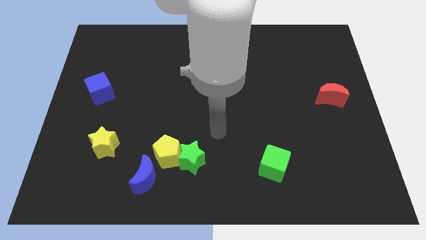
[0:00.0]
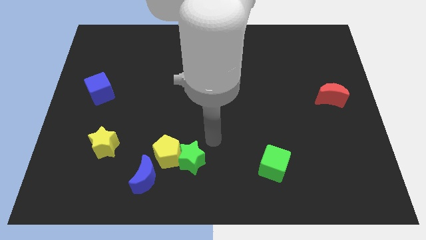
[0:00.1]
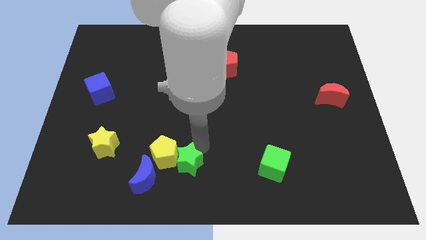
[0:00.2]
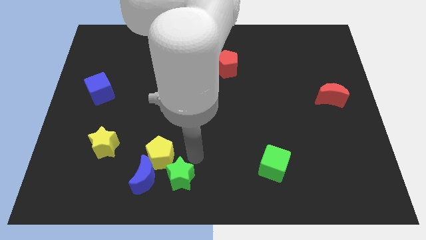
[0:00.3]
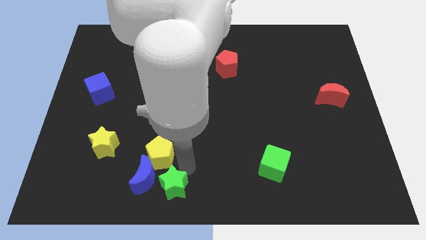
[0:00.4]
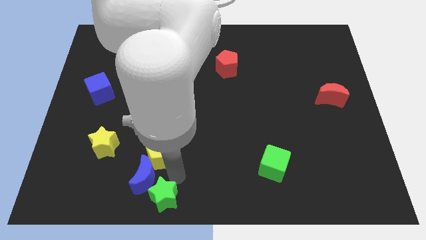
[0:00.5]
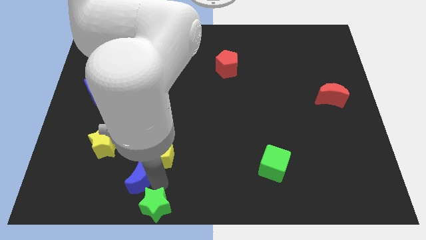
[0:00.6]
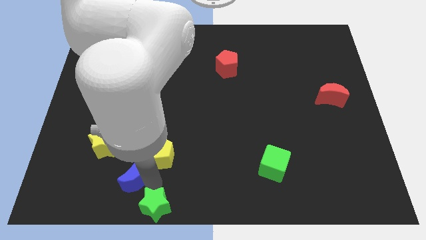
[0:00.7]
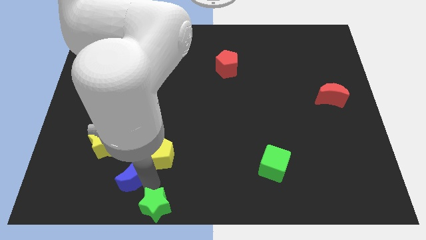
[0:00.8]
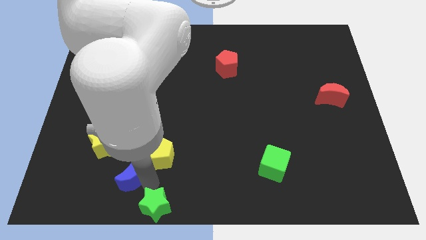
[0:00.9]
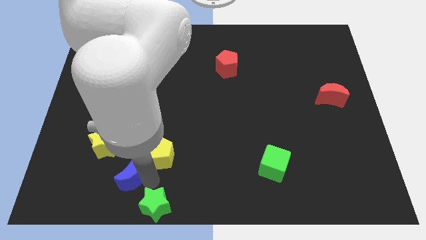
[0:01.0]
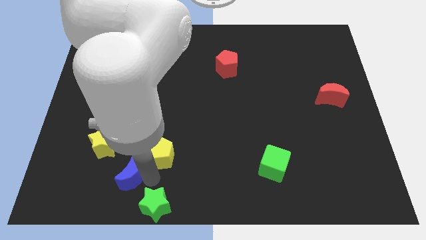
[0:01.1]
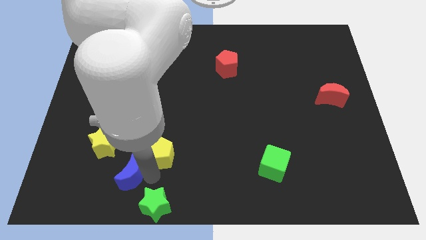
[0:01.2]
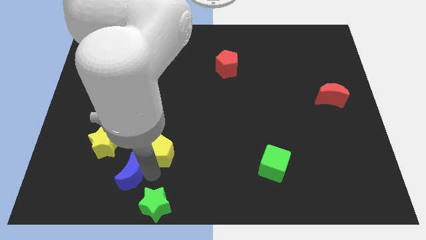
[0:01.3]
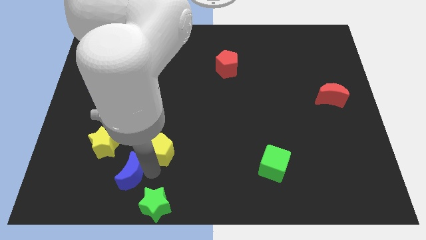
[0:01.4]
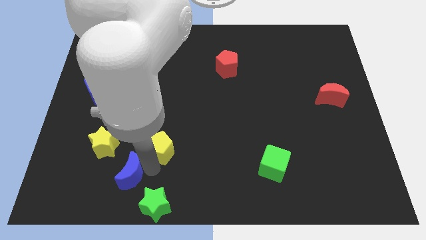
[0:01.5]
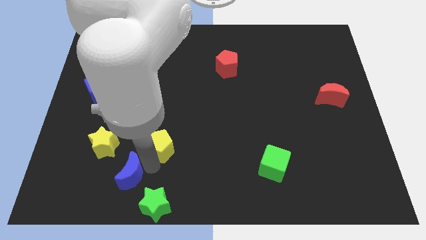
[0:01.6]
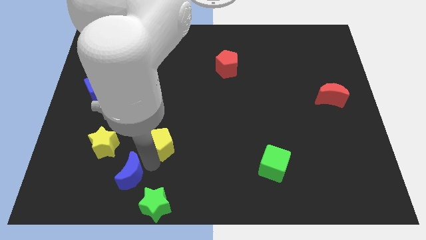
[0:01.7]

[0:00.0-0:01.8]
pull the yellow pentagon apart from the green star and blue moon

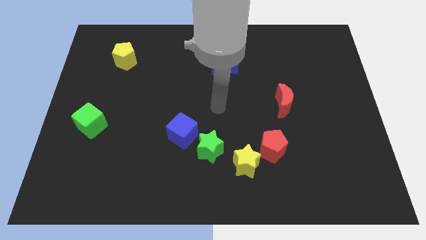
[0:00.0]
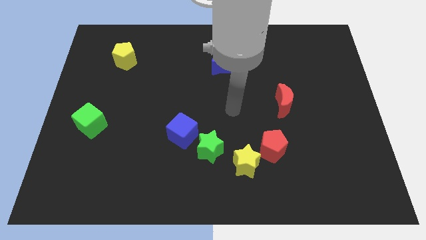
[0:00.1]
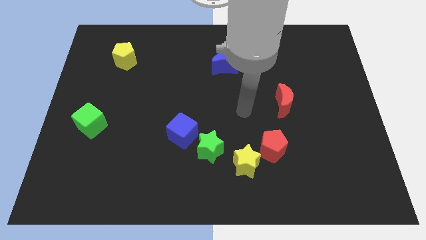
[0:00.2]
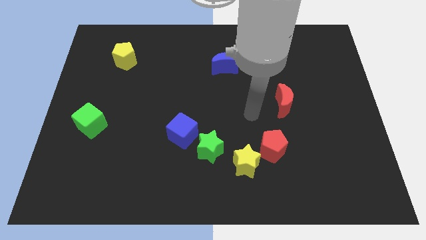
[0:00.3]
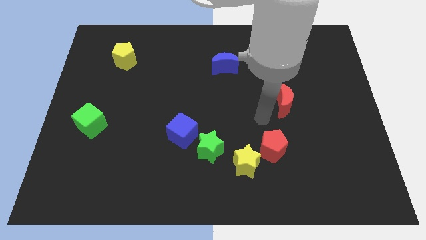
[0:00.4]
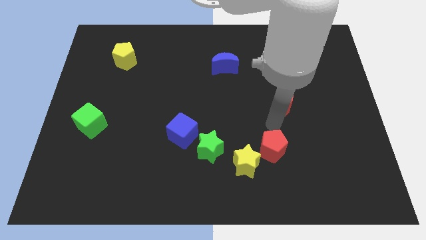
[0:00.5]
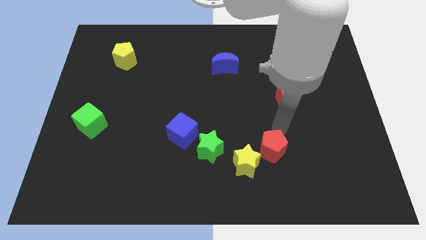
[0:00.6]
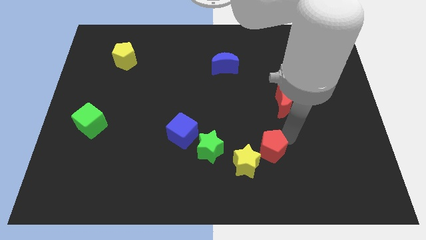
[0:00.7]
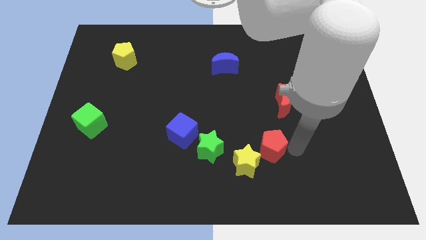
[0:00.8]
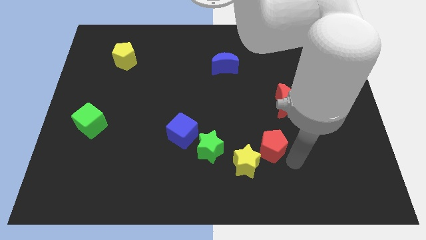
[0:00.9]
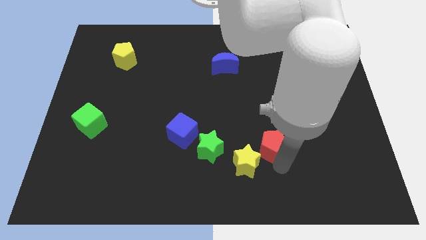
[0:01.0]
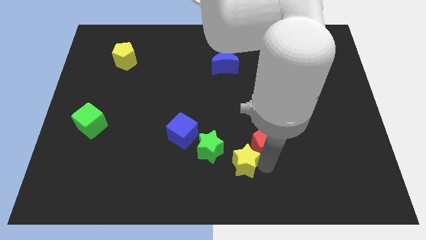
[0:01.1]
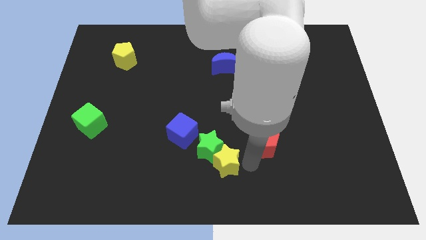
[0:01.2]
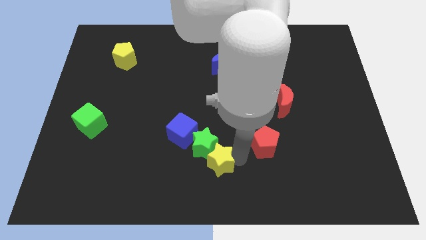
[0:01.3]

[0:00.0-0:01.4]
separate the red pentagon from the yellow star

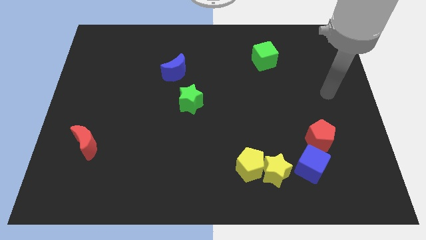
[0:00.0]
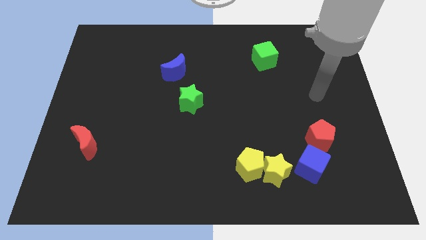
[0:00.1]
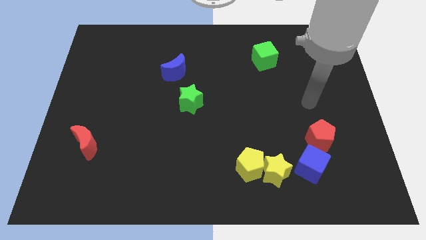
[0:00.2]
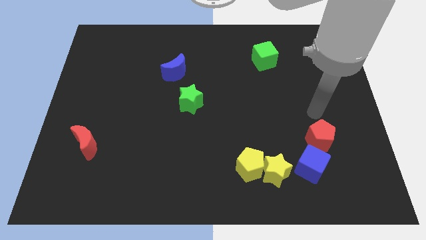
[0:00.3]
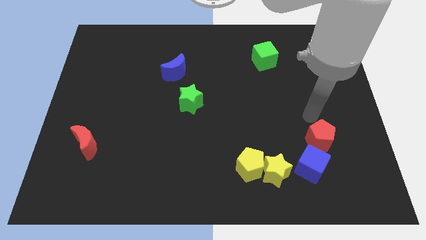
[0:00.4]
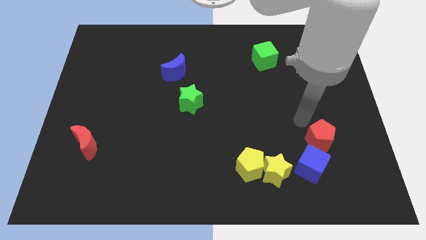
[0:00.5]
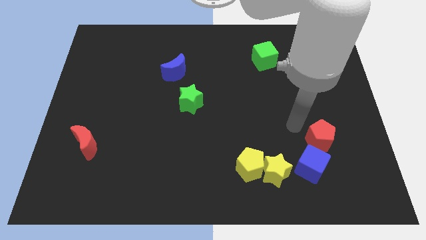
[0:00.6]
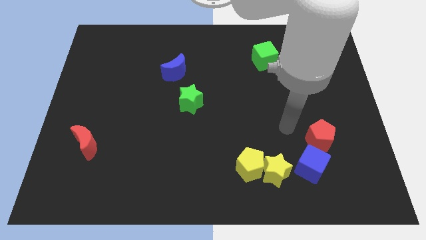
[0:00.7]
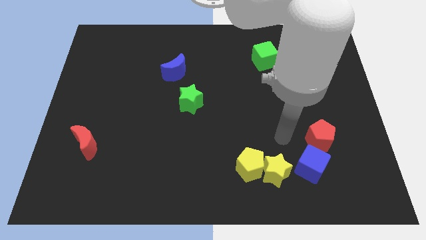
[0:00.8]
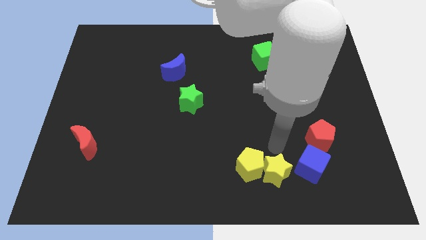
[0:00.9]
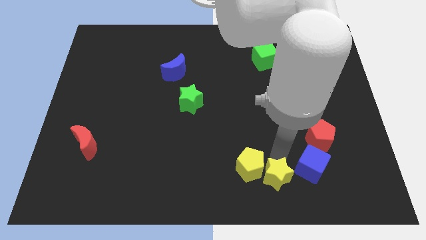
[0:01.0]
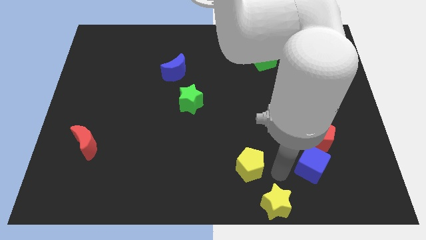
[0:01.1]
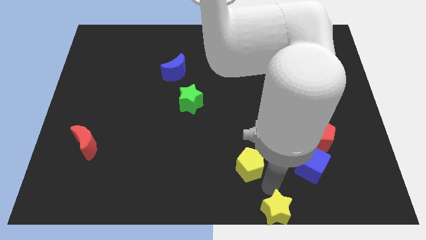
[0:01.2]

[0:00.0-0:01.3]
separate the yellow pentagon from the yellow star

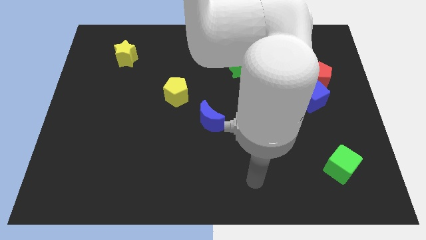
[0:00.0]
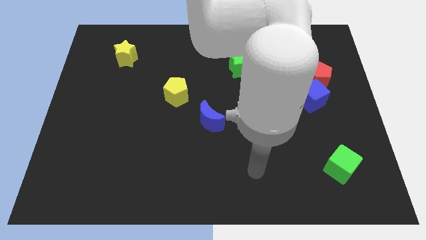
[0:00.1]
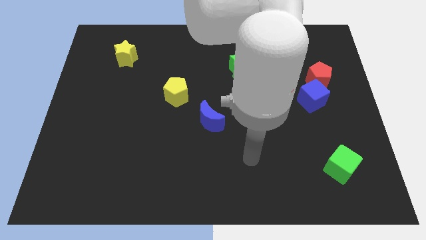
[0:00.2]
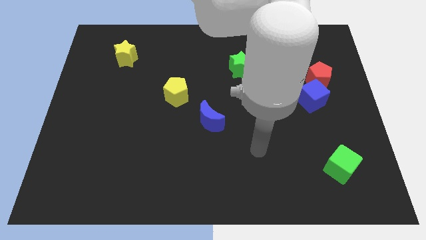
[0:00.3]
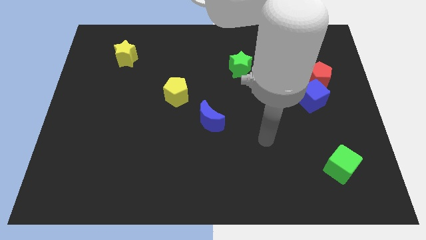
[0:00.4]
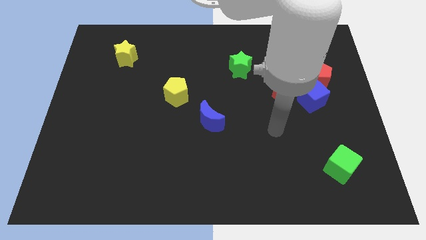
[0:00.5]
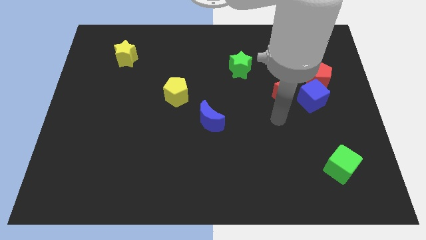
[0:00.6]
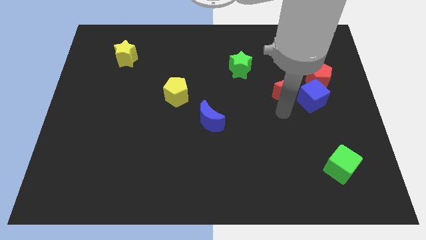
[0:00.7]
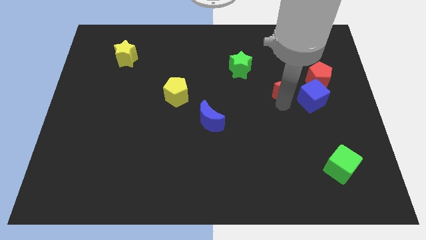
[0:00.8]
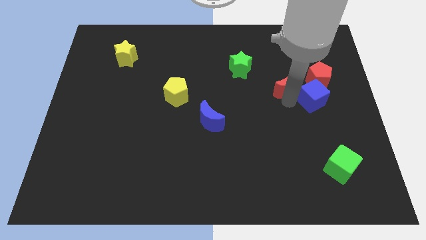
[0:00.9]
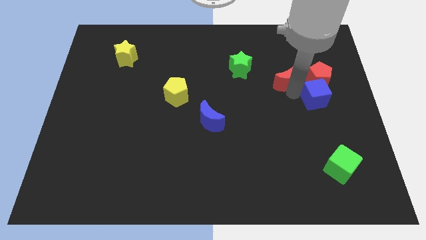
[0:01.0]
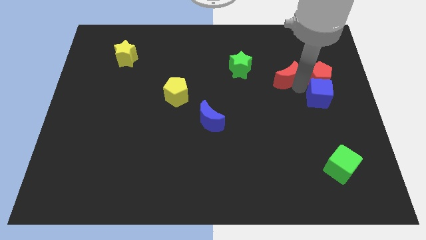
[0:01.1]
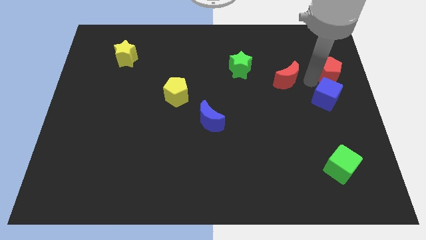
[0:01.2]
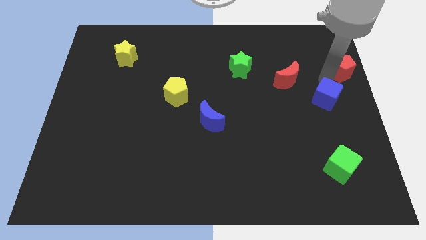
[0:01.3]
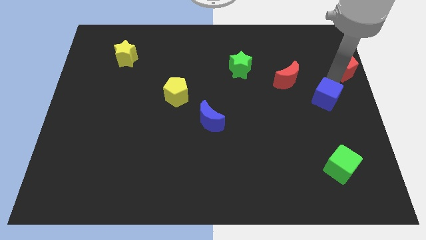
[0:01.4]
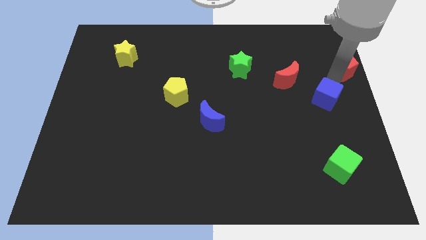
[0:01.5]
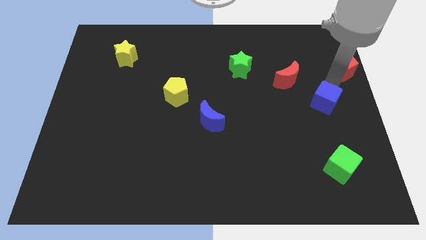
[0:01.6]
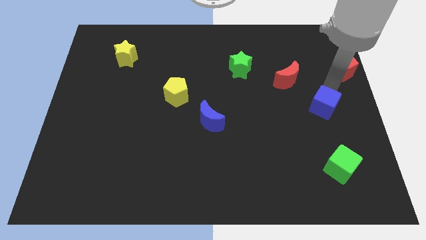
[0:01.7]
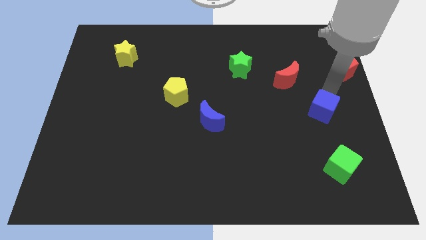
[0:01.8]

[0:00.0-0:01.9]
pull the blue cube apart from the red moon and red pentagon

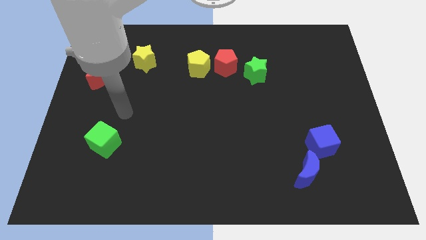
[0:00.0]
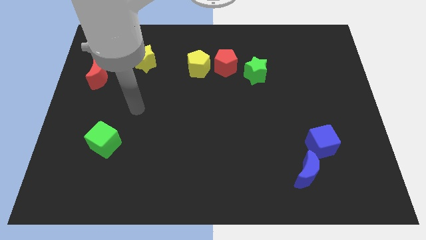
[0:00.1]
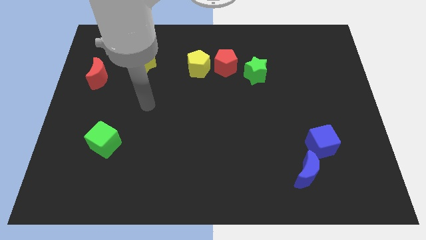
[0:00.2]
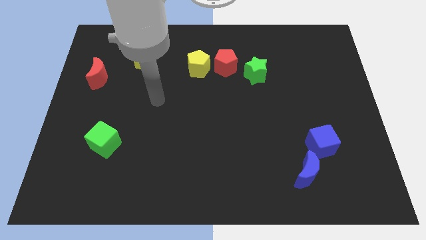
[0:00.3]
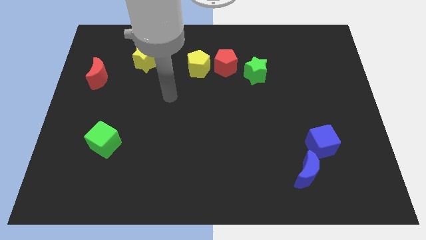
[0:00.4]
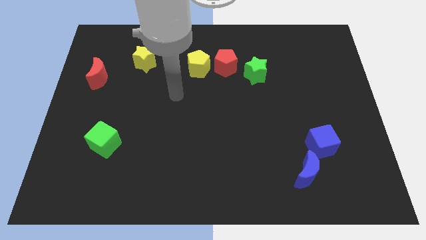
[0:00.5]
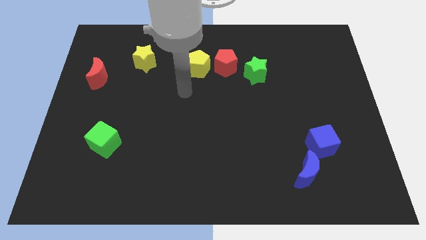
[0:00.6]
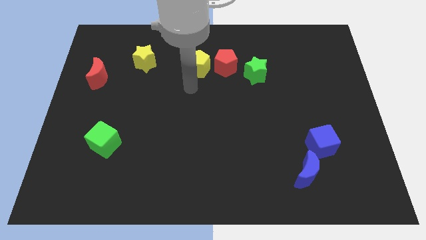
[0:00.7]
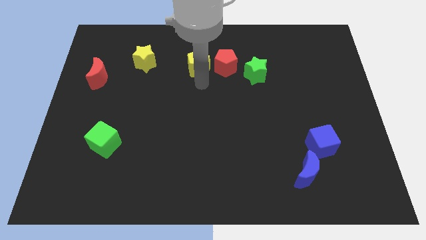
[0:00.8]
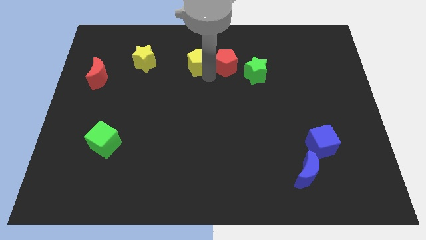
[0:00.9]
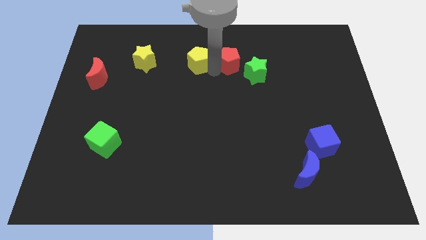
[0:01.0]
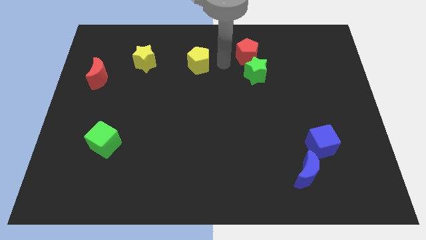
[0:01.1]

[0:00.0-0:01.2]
move the yellow pentagon away from the red pentagon

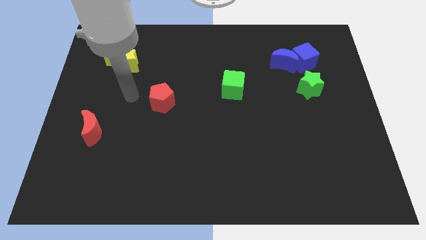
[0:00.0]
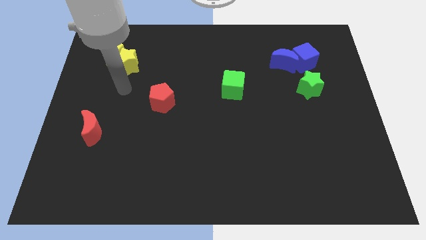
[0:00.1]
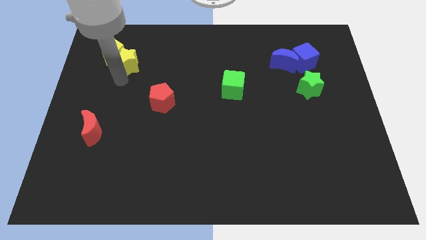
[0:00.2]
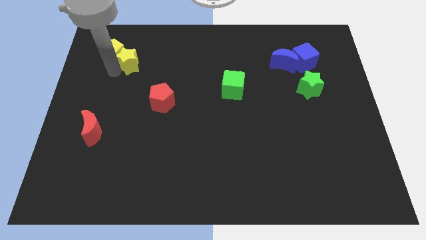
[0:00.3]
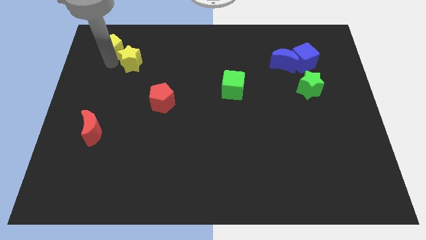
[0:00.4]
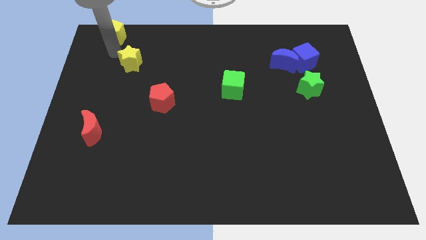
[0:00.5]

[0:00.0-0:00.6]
move the yellow star away from the yellow pentagon

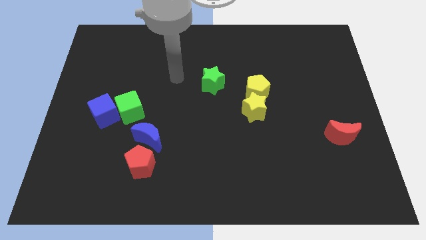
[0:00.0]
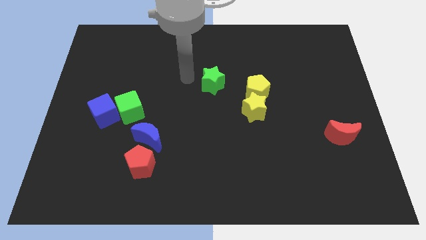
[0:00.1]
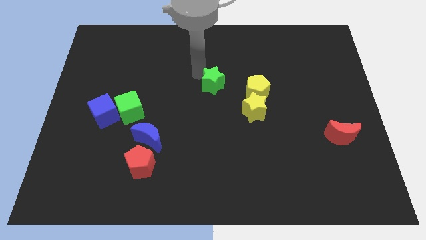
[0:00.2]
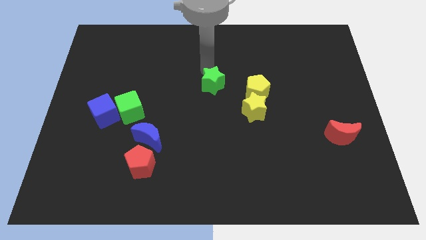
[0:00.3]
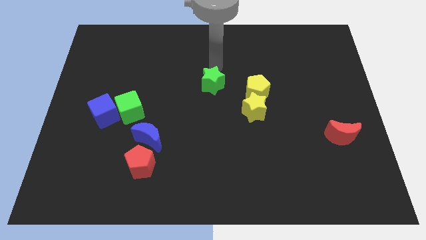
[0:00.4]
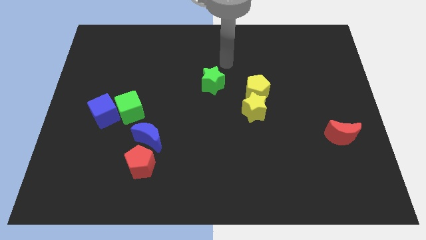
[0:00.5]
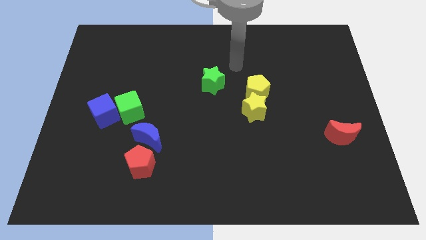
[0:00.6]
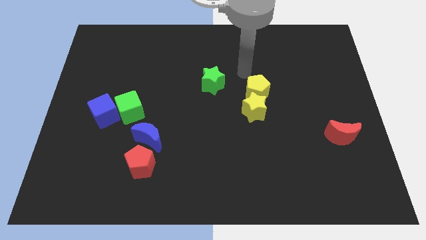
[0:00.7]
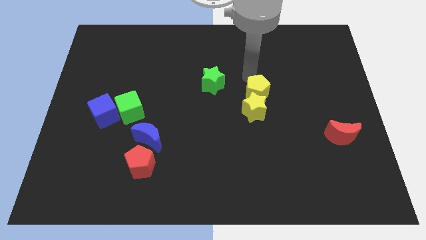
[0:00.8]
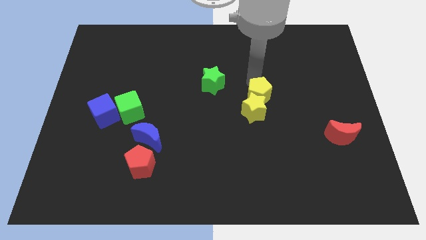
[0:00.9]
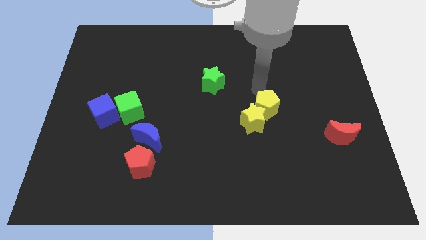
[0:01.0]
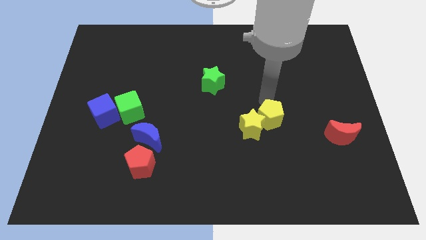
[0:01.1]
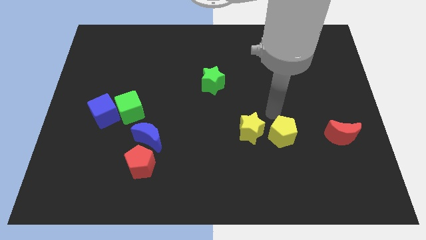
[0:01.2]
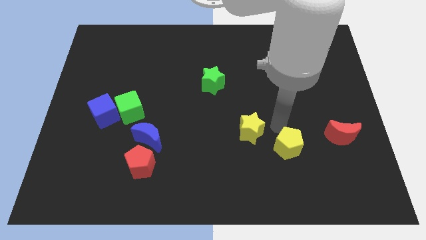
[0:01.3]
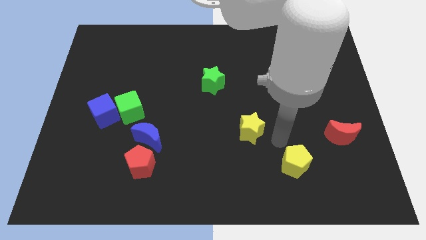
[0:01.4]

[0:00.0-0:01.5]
separate the yellow star from the yellow pentagon
